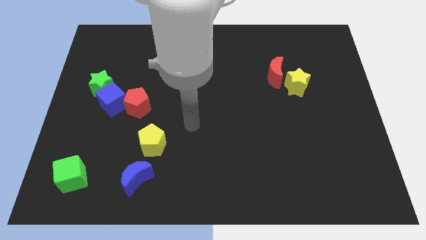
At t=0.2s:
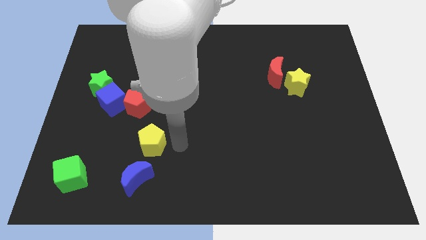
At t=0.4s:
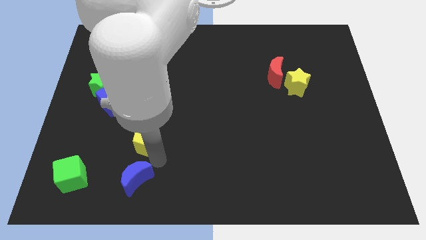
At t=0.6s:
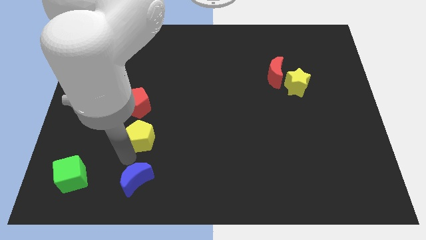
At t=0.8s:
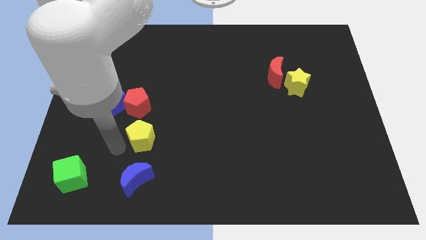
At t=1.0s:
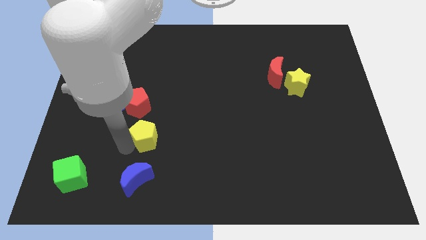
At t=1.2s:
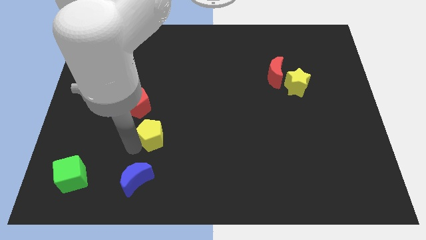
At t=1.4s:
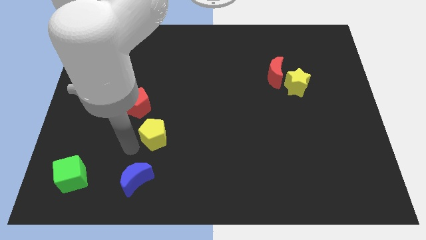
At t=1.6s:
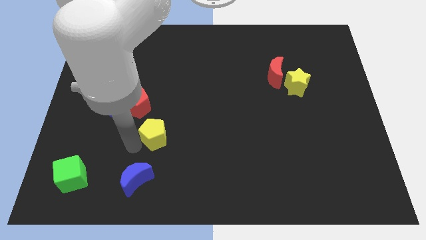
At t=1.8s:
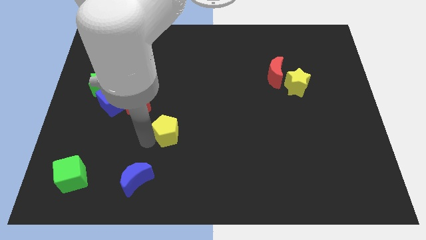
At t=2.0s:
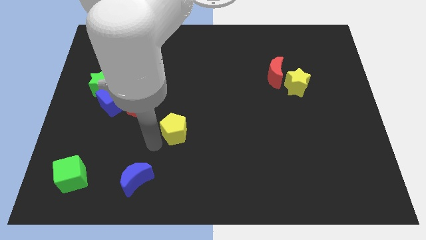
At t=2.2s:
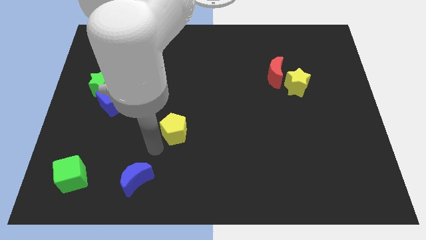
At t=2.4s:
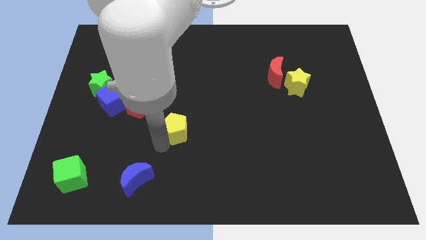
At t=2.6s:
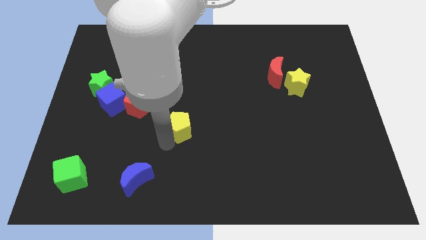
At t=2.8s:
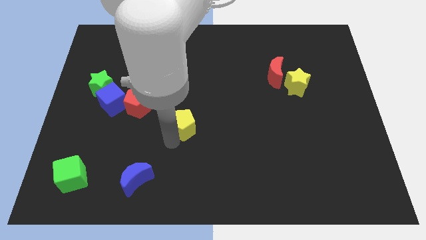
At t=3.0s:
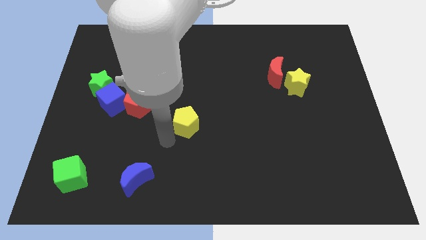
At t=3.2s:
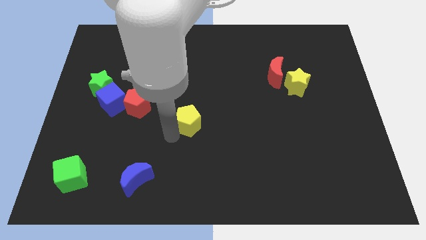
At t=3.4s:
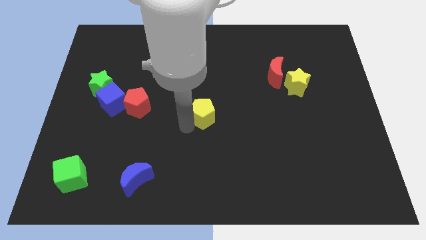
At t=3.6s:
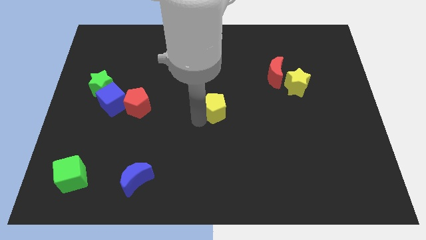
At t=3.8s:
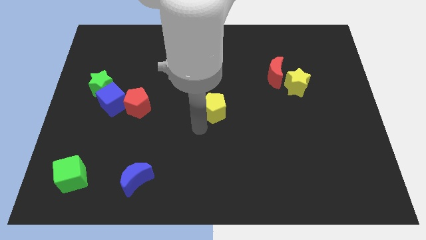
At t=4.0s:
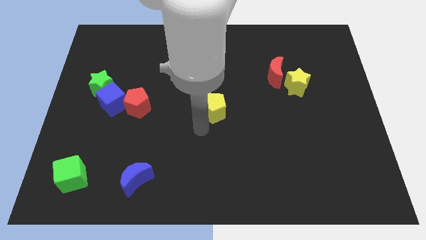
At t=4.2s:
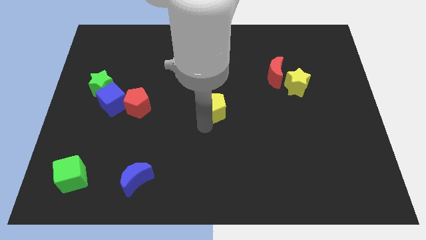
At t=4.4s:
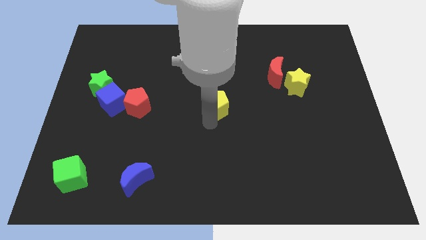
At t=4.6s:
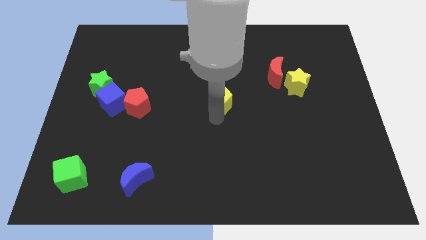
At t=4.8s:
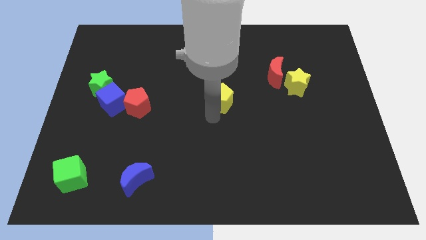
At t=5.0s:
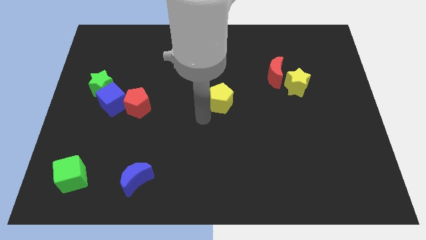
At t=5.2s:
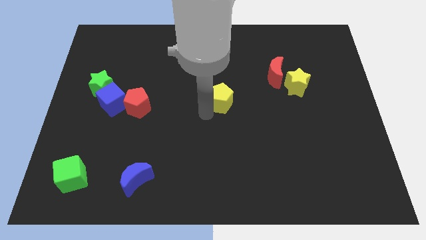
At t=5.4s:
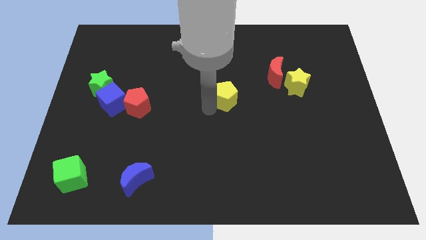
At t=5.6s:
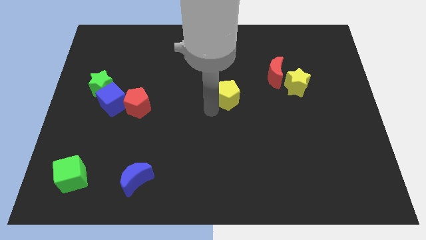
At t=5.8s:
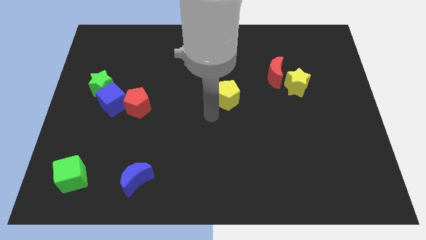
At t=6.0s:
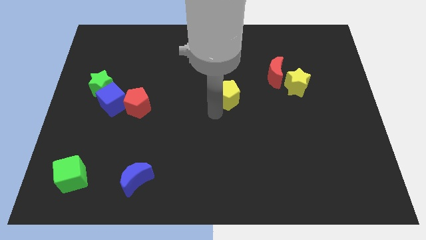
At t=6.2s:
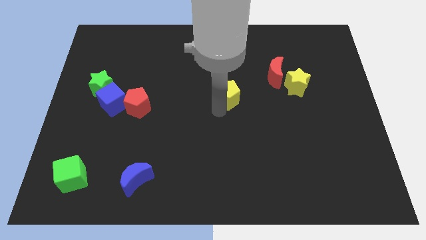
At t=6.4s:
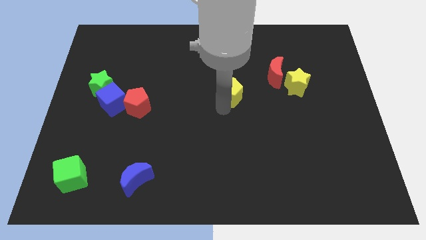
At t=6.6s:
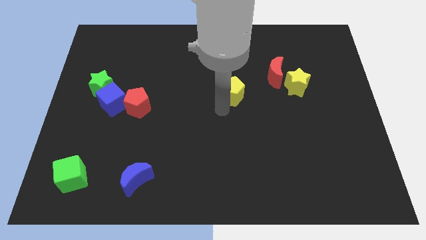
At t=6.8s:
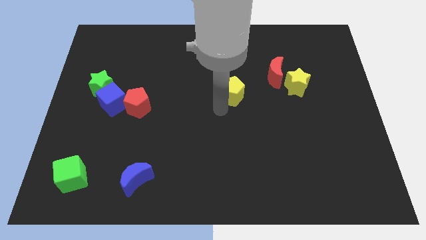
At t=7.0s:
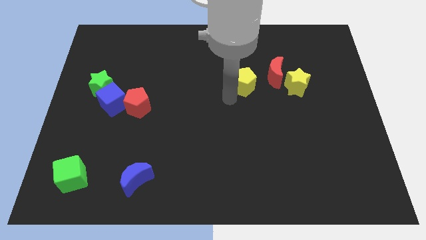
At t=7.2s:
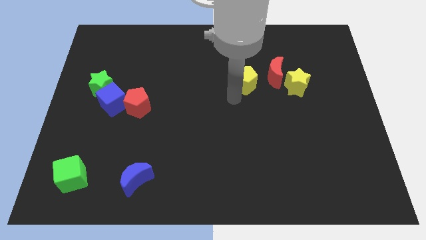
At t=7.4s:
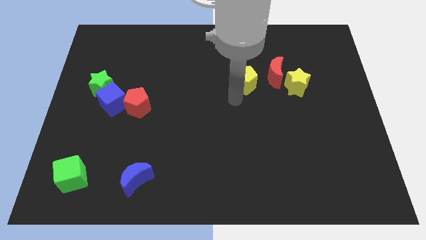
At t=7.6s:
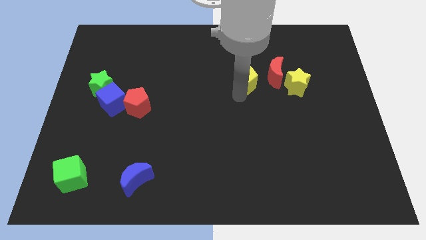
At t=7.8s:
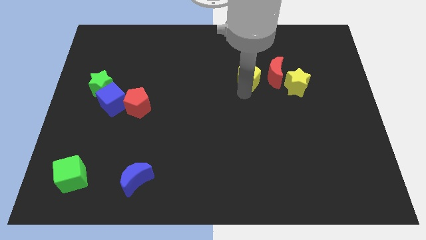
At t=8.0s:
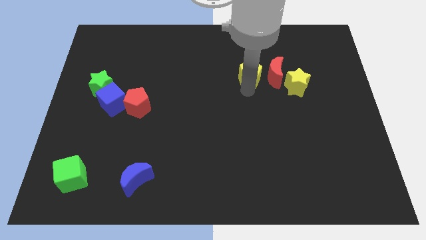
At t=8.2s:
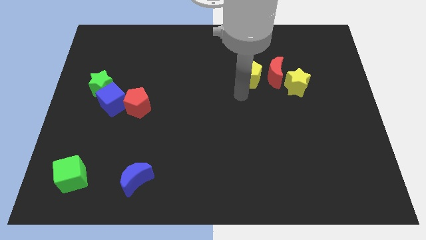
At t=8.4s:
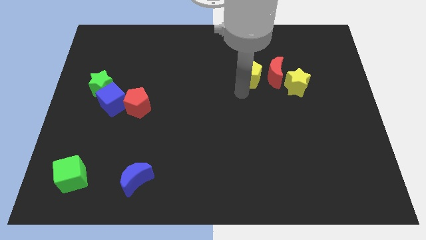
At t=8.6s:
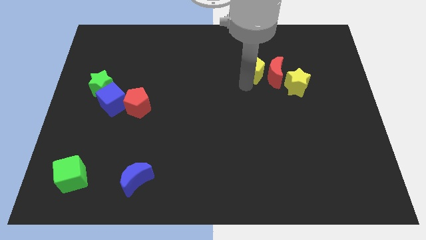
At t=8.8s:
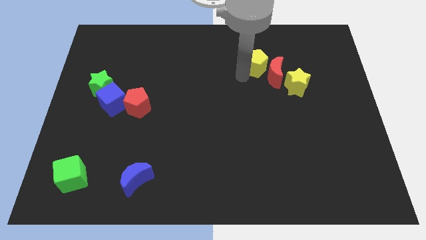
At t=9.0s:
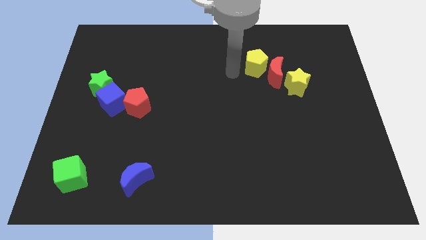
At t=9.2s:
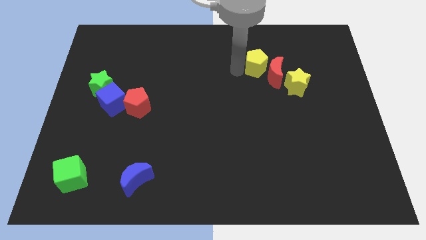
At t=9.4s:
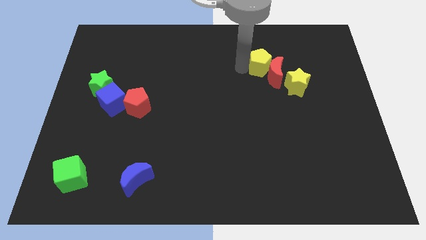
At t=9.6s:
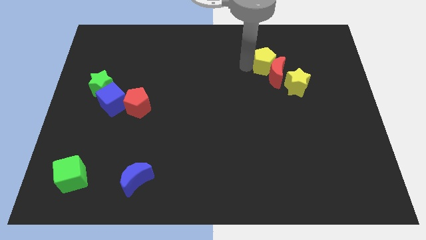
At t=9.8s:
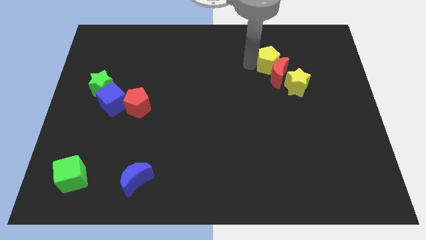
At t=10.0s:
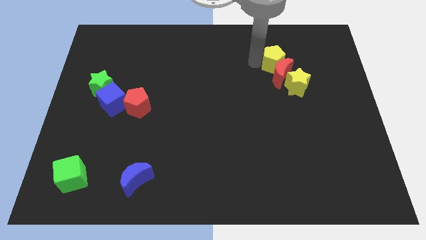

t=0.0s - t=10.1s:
push the yellow pentagon to the top side of the yellow star

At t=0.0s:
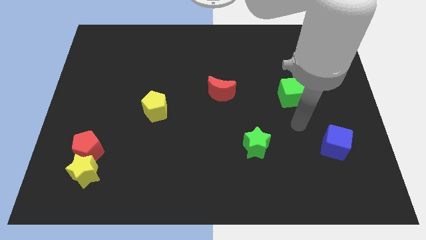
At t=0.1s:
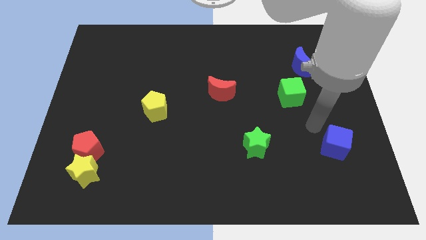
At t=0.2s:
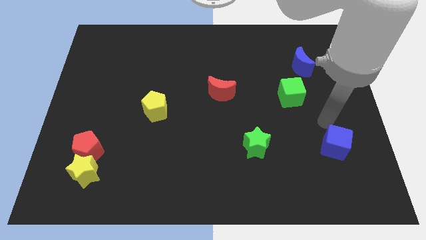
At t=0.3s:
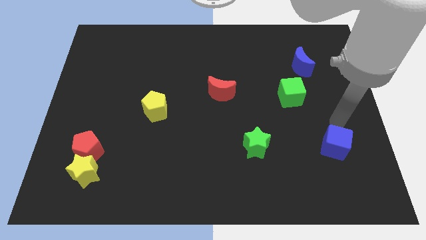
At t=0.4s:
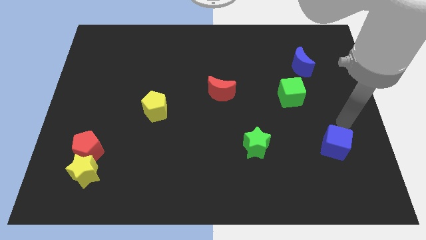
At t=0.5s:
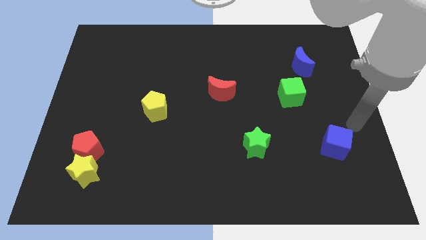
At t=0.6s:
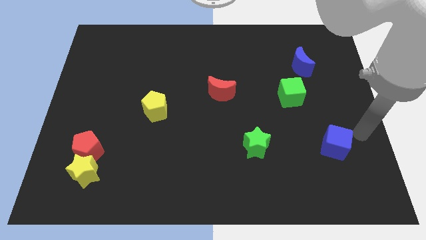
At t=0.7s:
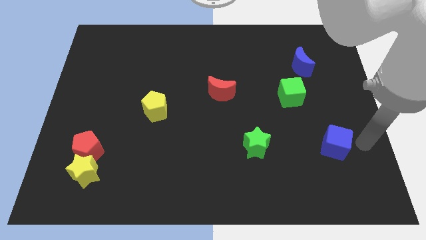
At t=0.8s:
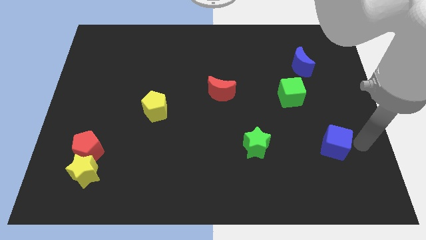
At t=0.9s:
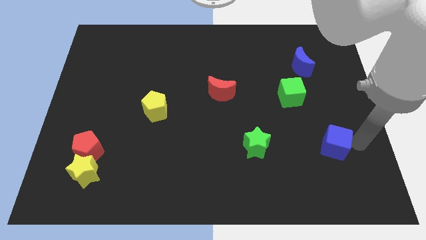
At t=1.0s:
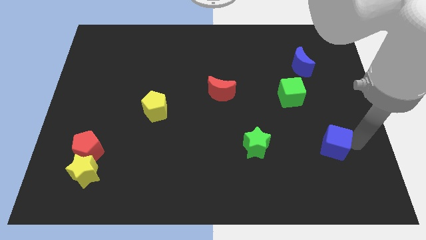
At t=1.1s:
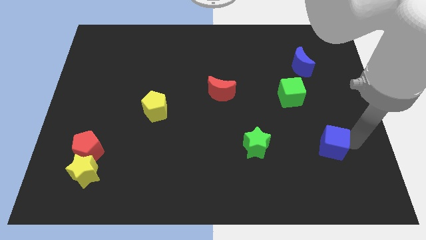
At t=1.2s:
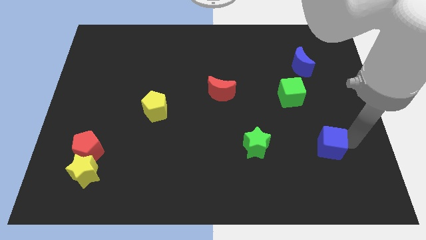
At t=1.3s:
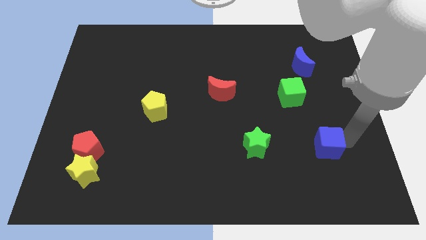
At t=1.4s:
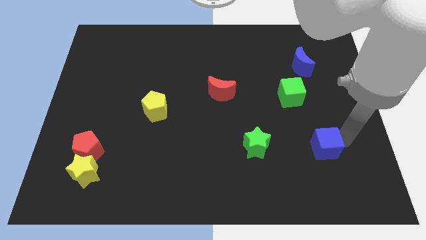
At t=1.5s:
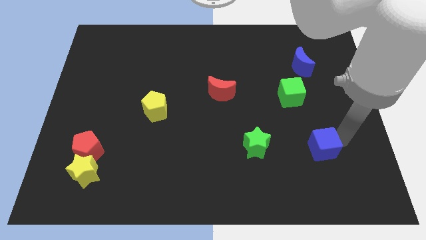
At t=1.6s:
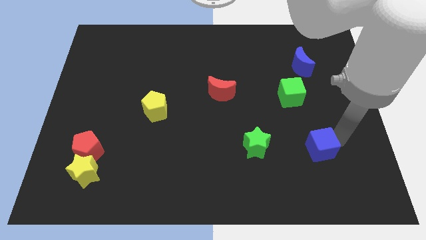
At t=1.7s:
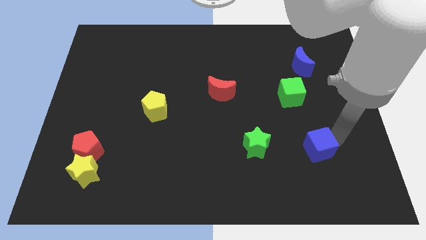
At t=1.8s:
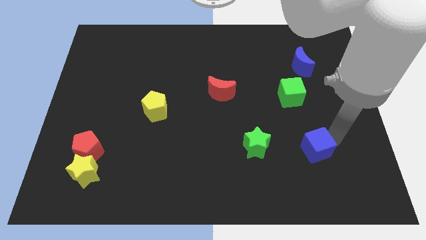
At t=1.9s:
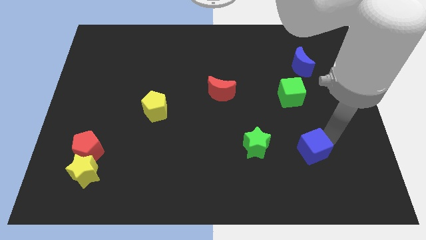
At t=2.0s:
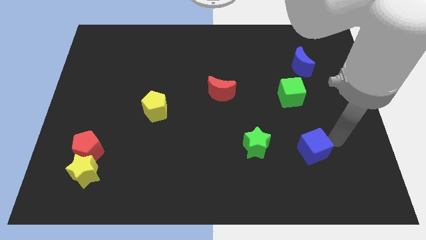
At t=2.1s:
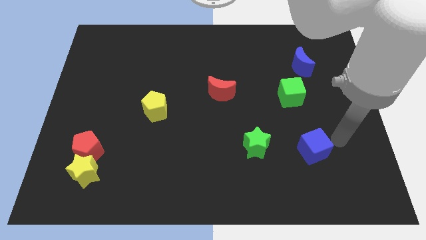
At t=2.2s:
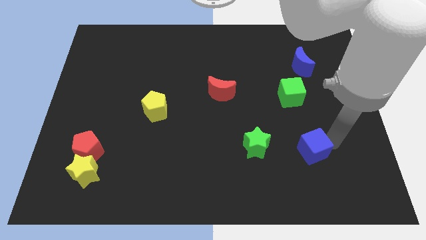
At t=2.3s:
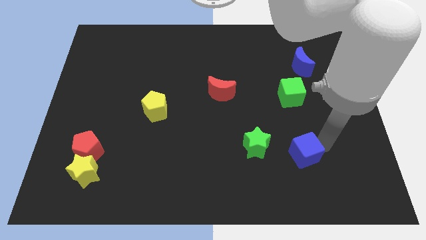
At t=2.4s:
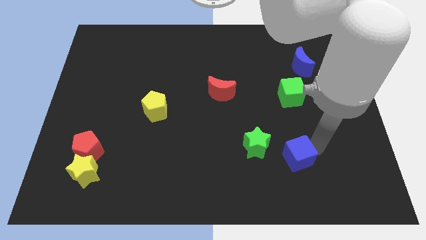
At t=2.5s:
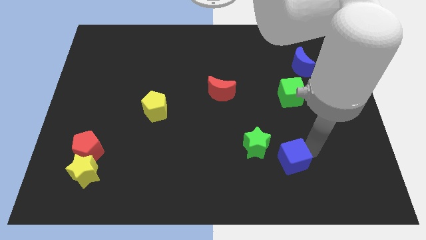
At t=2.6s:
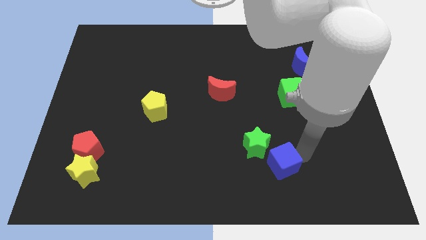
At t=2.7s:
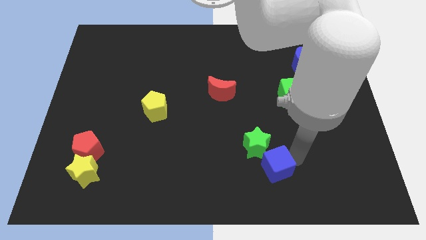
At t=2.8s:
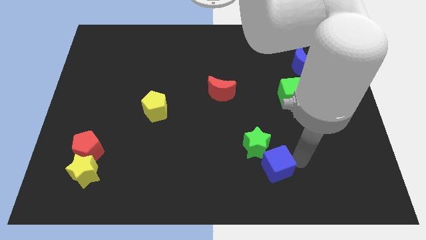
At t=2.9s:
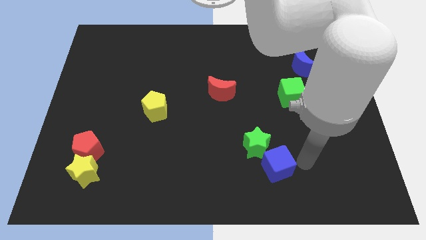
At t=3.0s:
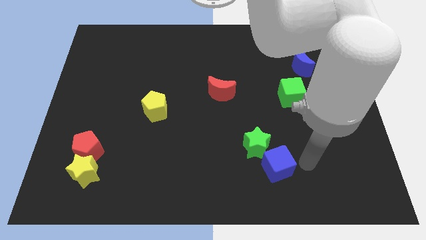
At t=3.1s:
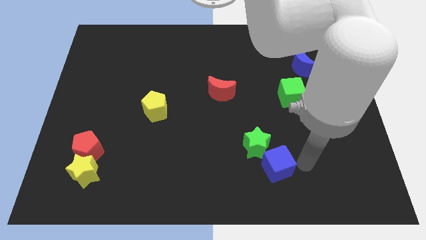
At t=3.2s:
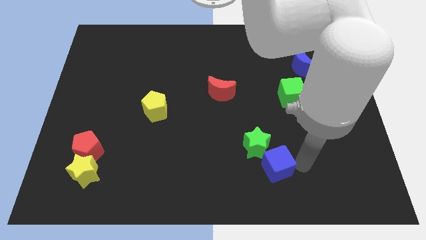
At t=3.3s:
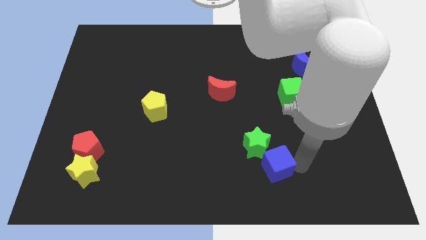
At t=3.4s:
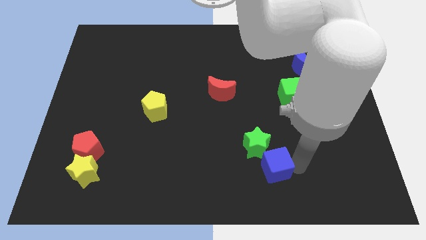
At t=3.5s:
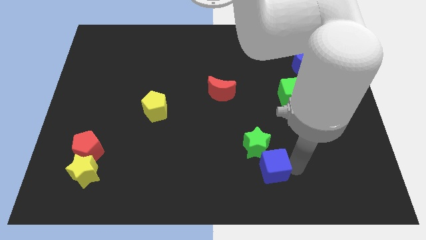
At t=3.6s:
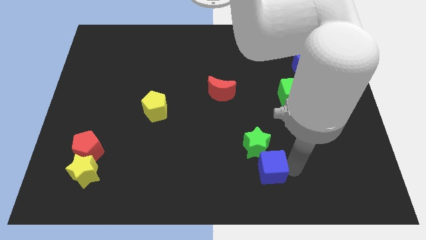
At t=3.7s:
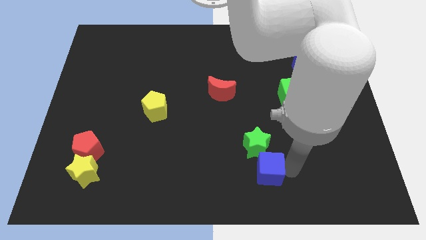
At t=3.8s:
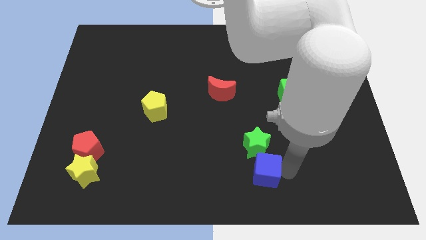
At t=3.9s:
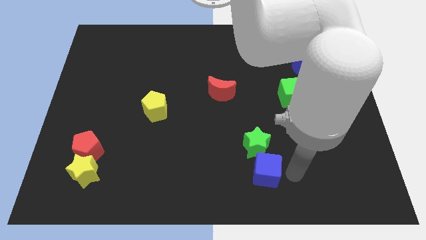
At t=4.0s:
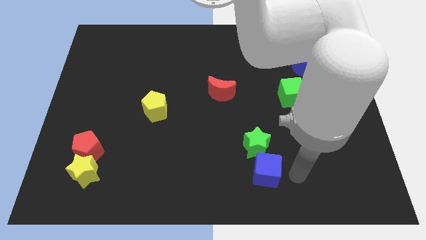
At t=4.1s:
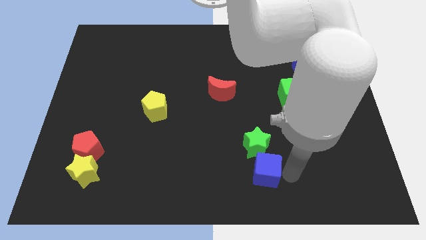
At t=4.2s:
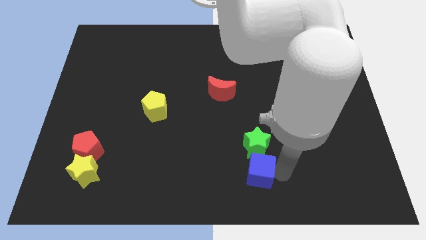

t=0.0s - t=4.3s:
put the blue cube to the bottom left side of the green star
